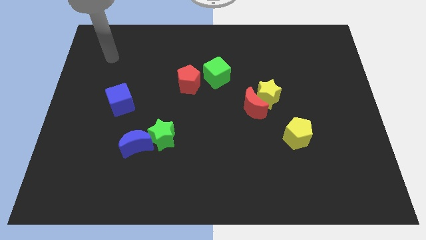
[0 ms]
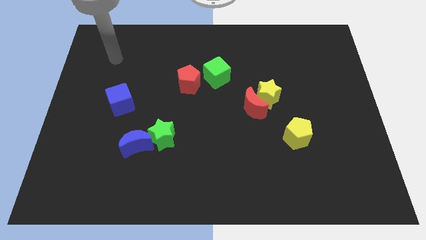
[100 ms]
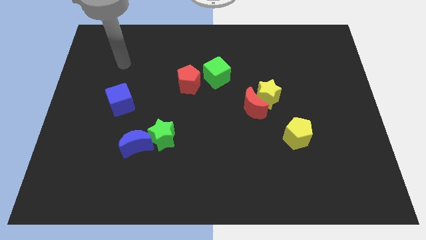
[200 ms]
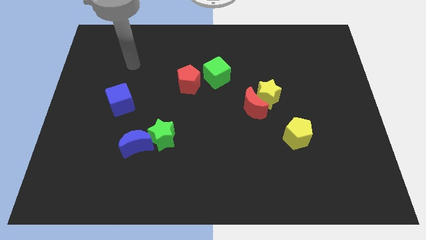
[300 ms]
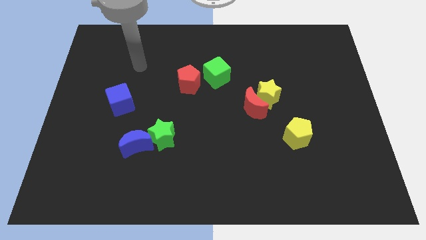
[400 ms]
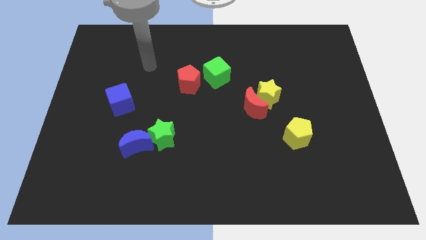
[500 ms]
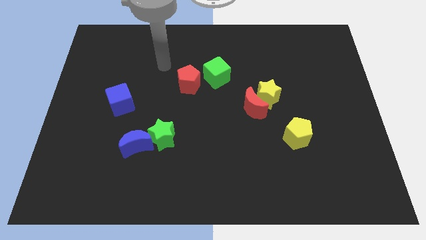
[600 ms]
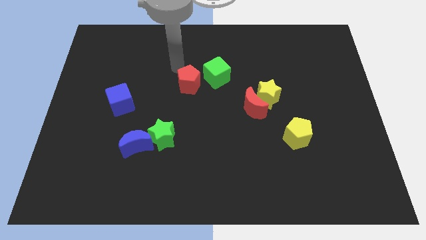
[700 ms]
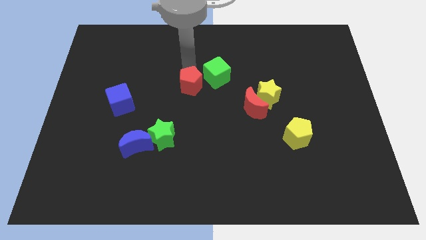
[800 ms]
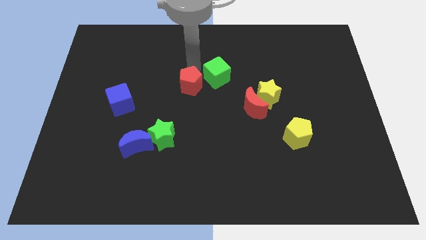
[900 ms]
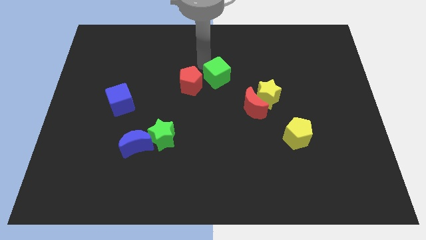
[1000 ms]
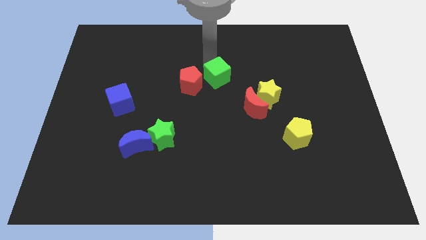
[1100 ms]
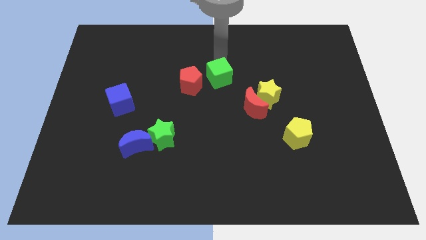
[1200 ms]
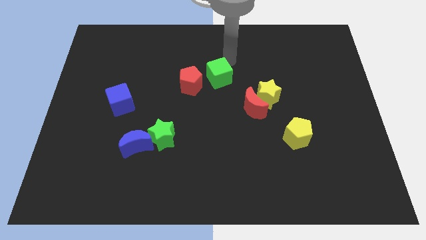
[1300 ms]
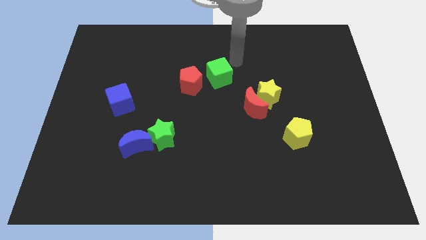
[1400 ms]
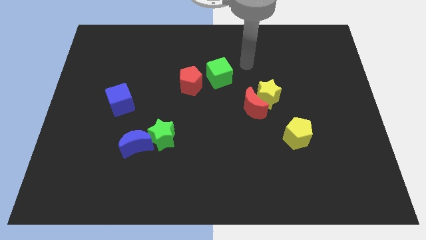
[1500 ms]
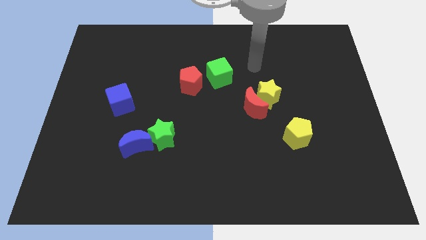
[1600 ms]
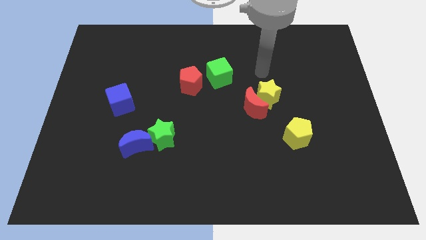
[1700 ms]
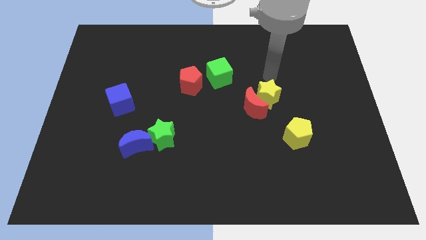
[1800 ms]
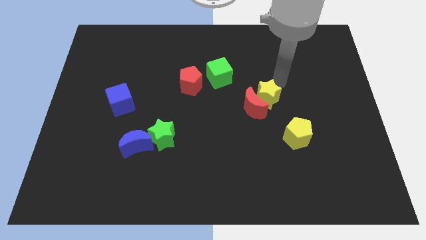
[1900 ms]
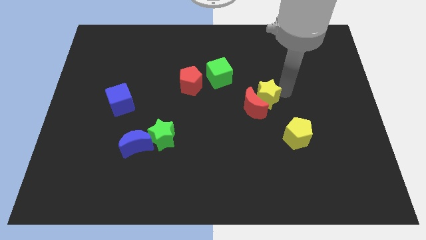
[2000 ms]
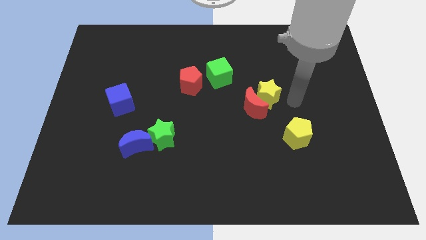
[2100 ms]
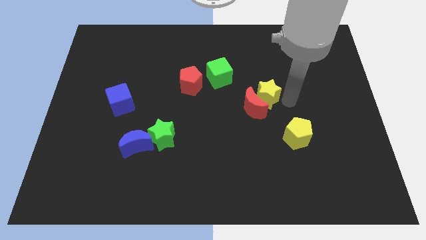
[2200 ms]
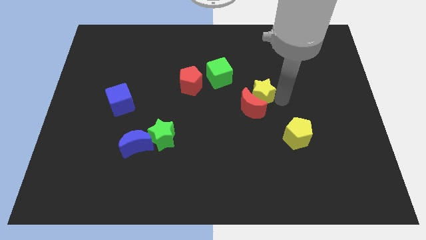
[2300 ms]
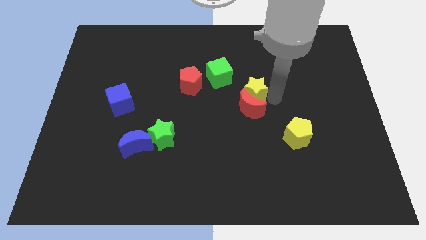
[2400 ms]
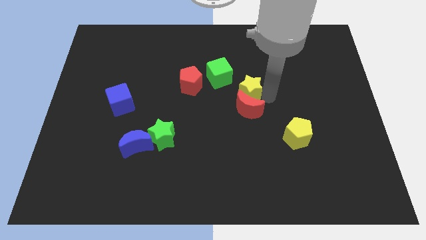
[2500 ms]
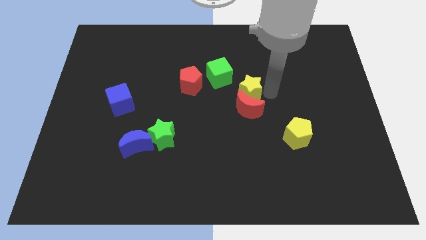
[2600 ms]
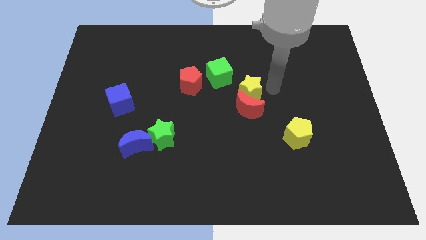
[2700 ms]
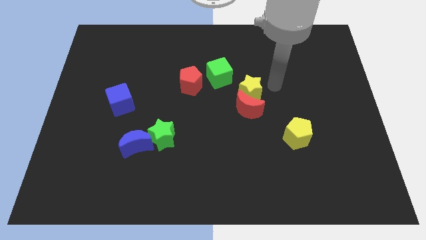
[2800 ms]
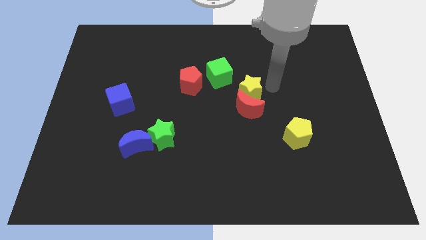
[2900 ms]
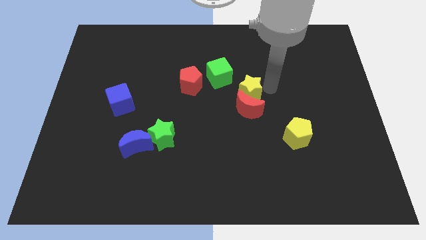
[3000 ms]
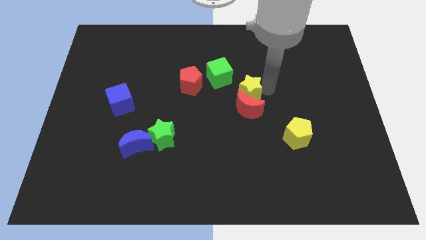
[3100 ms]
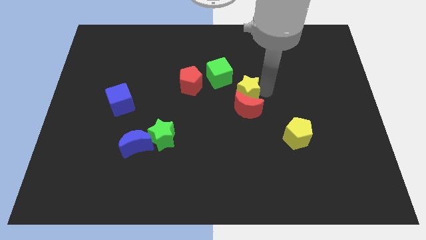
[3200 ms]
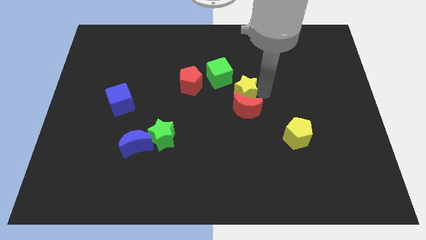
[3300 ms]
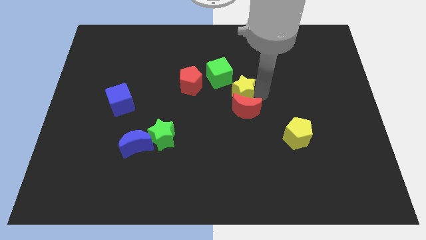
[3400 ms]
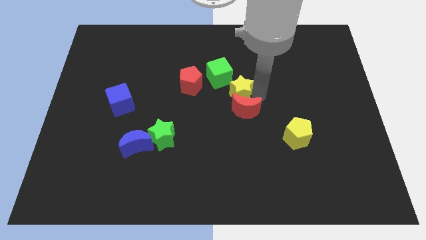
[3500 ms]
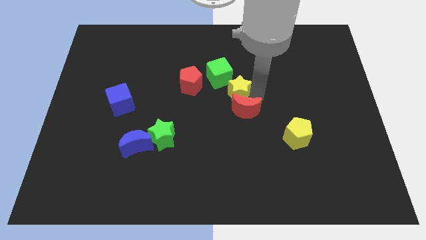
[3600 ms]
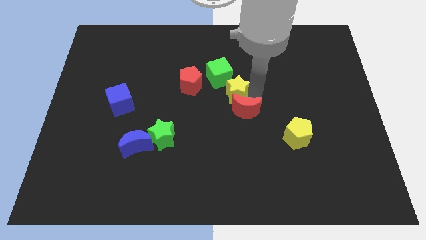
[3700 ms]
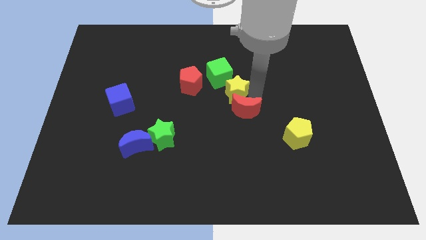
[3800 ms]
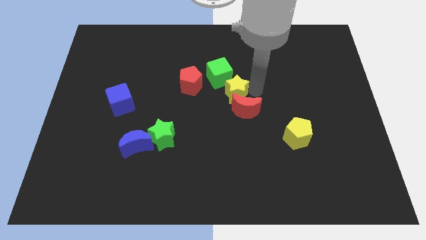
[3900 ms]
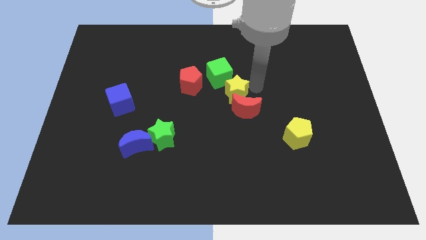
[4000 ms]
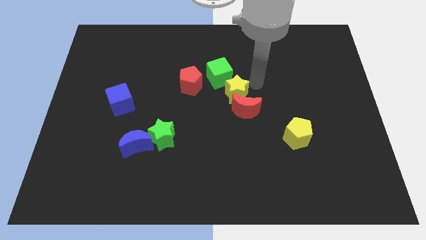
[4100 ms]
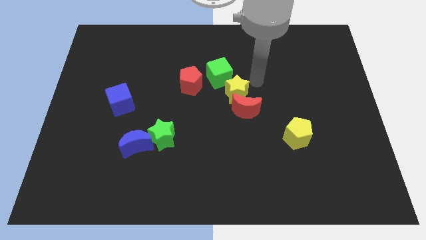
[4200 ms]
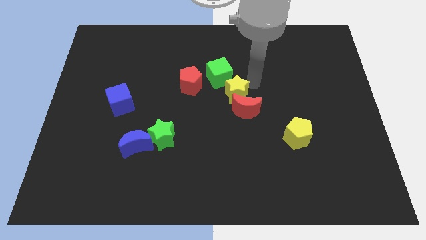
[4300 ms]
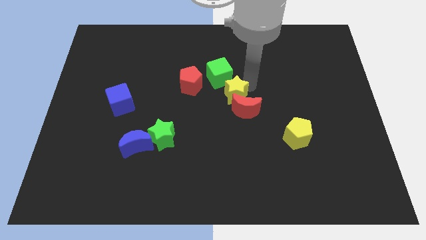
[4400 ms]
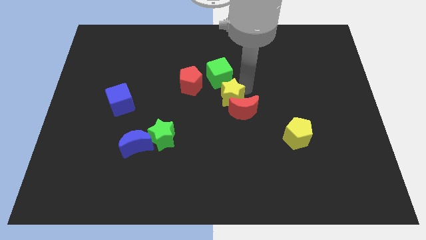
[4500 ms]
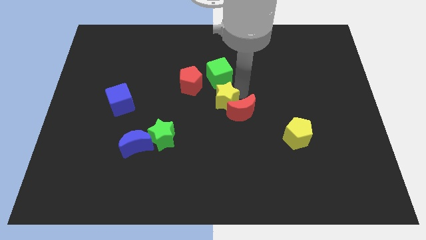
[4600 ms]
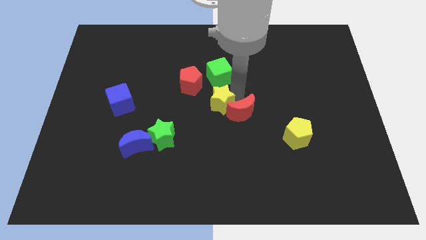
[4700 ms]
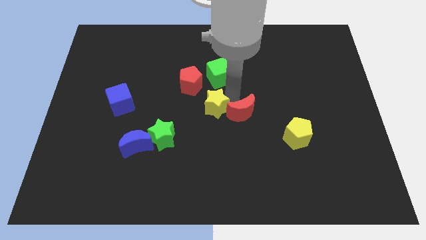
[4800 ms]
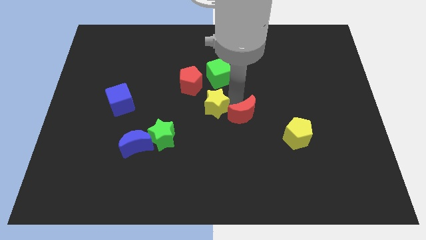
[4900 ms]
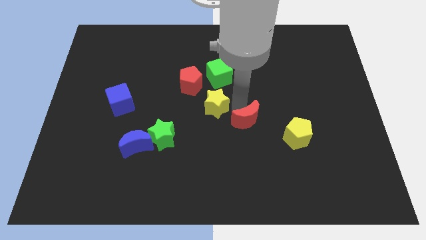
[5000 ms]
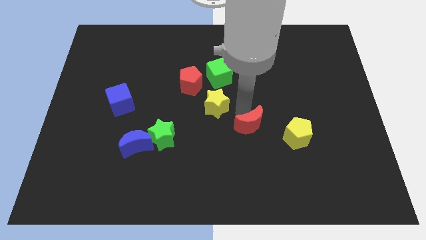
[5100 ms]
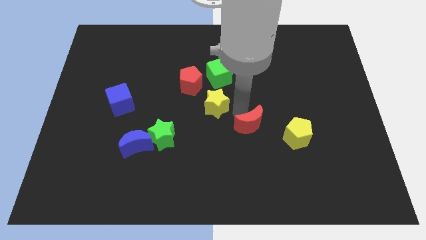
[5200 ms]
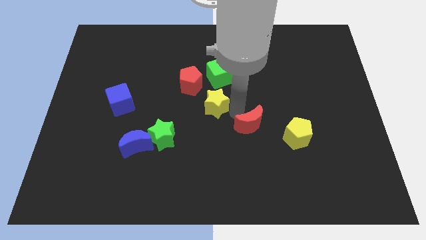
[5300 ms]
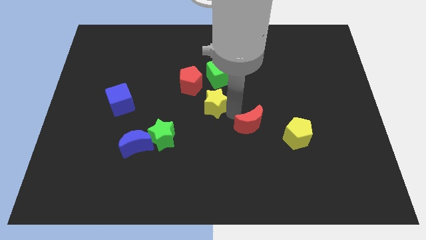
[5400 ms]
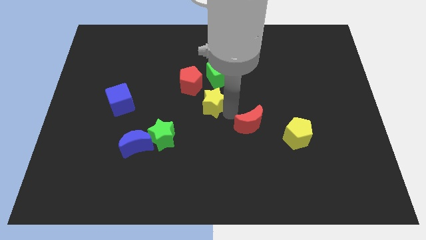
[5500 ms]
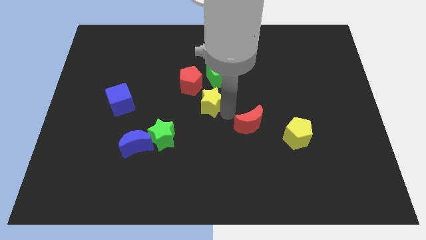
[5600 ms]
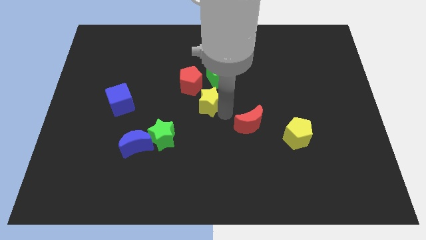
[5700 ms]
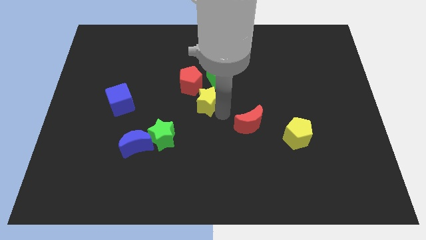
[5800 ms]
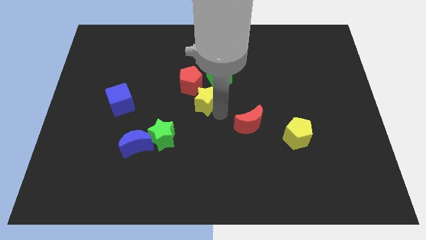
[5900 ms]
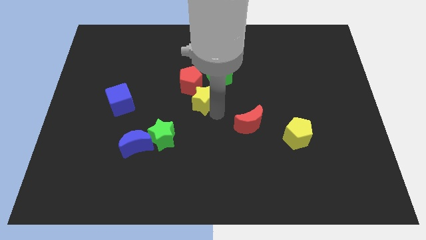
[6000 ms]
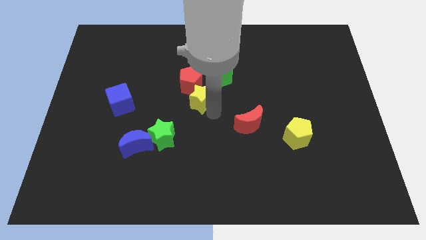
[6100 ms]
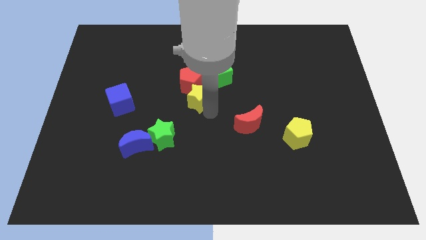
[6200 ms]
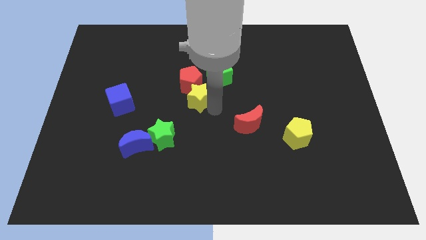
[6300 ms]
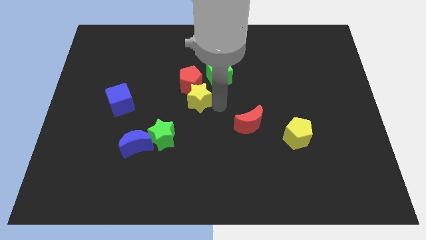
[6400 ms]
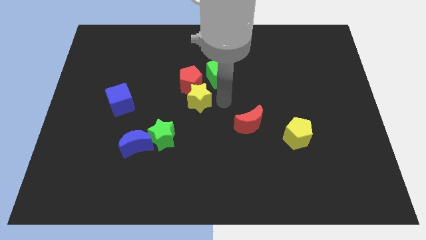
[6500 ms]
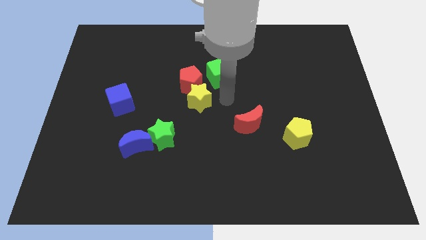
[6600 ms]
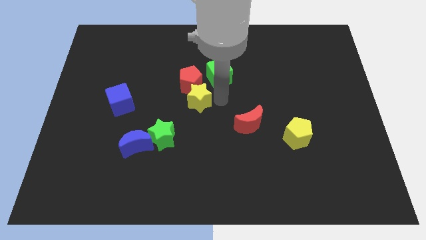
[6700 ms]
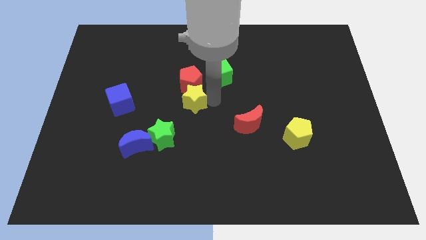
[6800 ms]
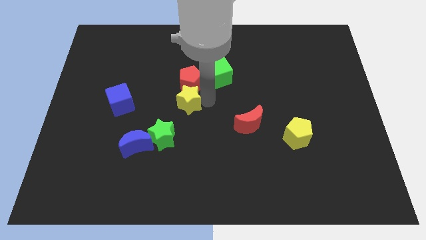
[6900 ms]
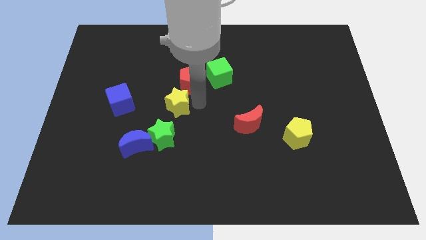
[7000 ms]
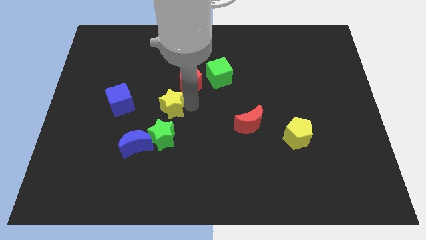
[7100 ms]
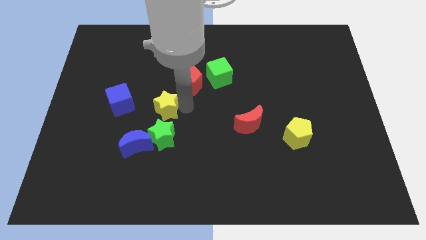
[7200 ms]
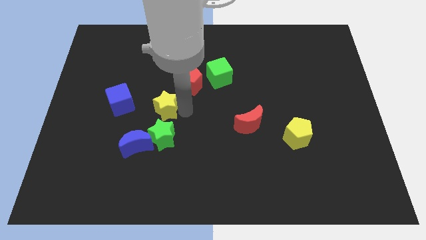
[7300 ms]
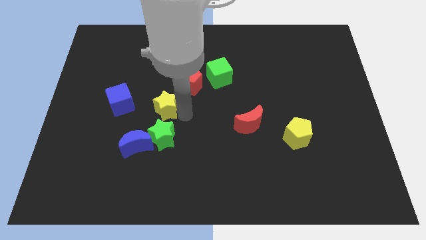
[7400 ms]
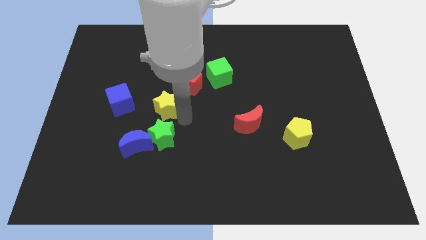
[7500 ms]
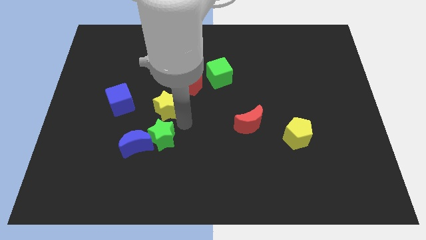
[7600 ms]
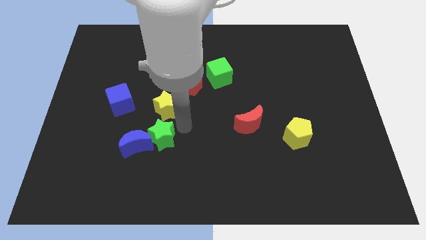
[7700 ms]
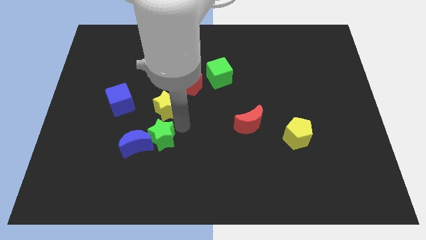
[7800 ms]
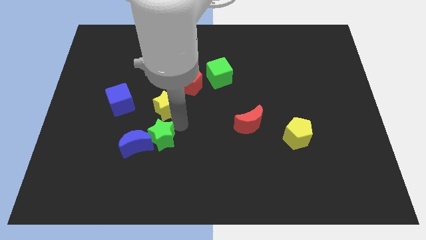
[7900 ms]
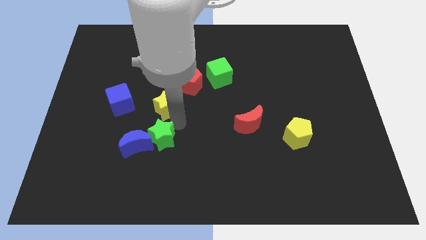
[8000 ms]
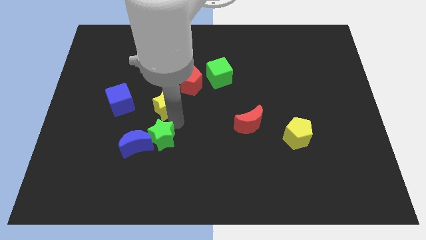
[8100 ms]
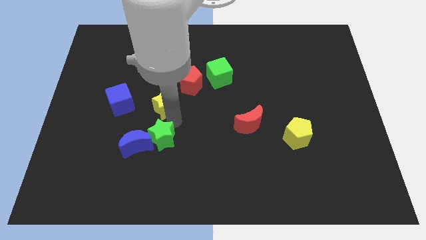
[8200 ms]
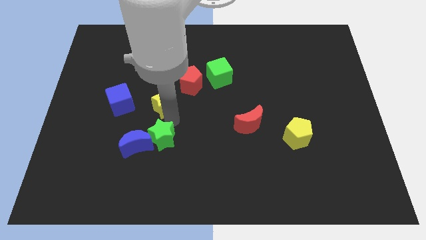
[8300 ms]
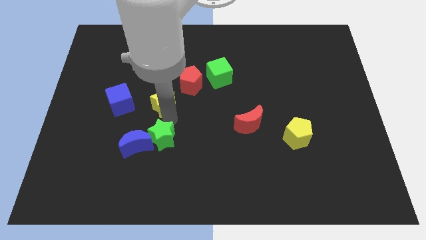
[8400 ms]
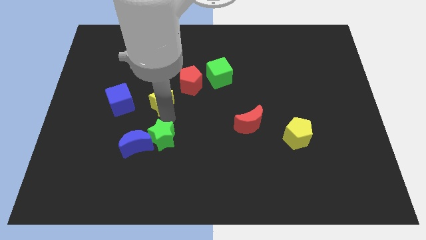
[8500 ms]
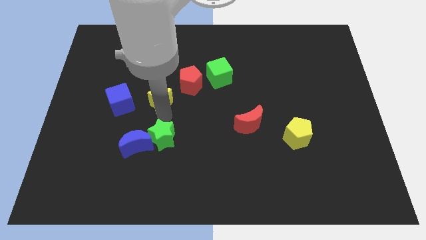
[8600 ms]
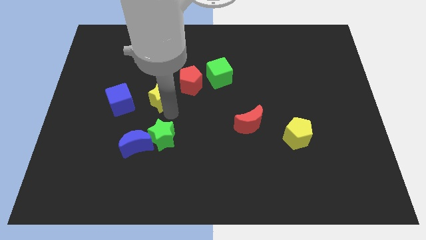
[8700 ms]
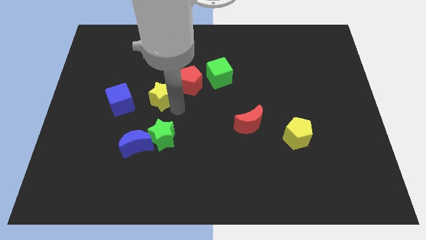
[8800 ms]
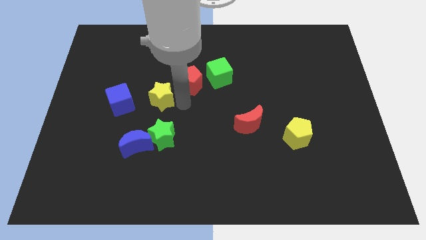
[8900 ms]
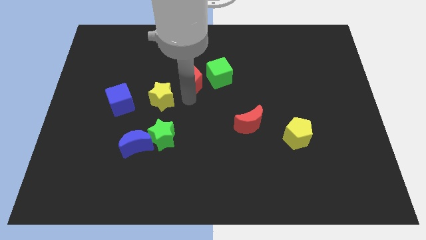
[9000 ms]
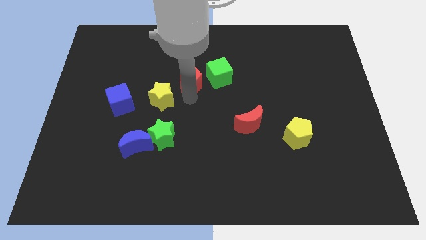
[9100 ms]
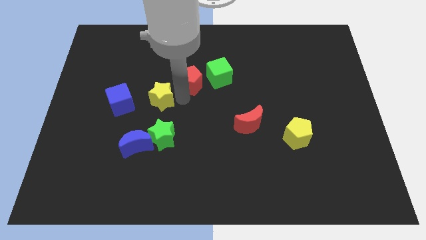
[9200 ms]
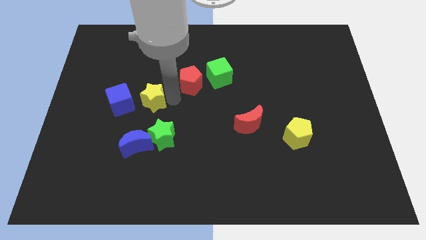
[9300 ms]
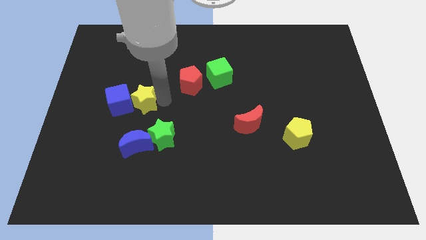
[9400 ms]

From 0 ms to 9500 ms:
move the yellow star to the blue cube
